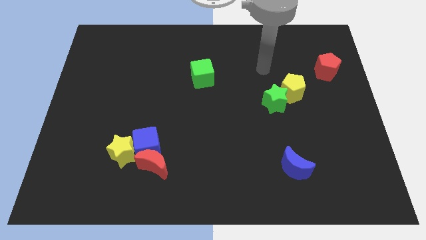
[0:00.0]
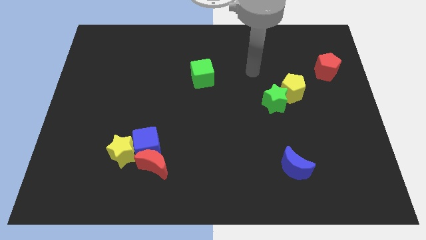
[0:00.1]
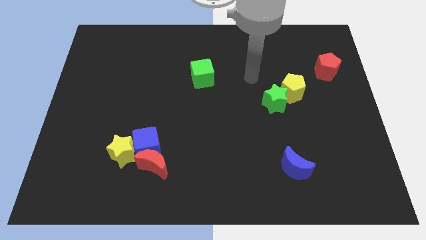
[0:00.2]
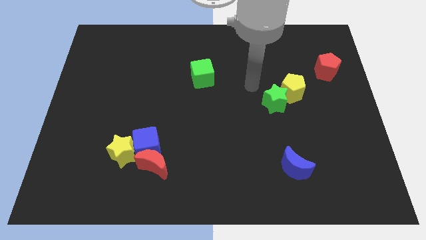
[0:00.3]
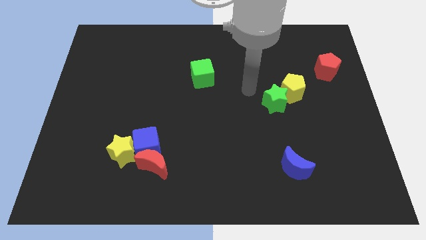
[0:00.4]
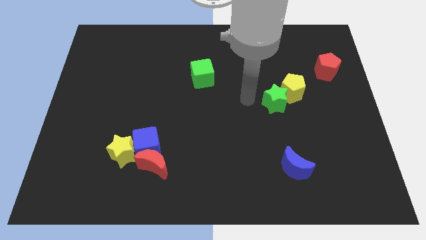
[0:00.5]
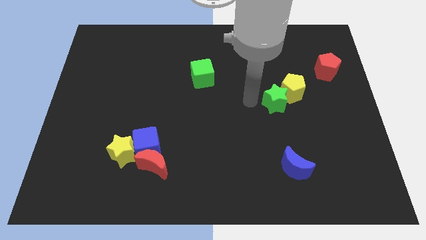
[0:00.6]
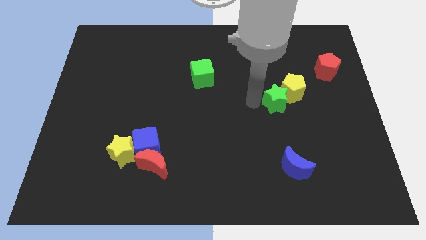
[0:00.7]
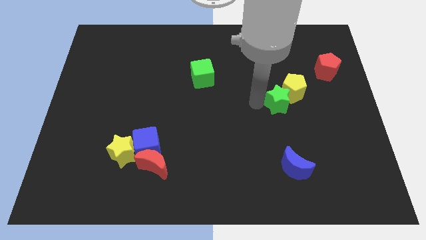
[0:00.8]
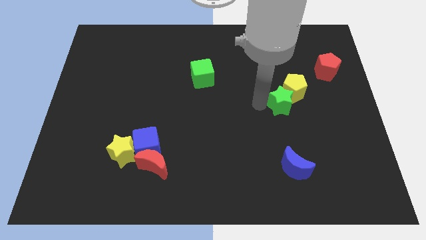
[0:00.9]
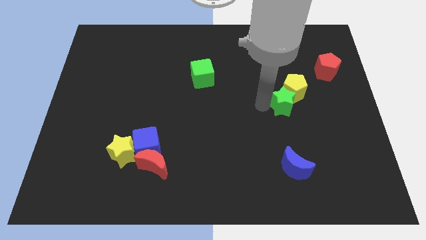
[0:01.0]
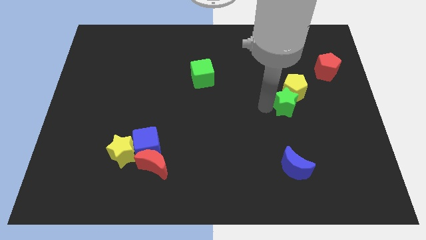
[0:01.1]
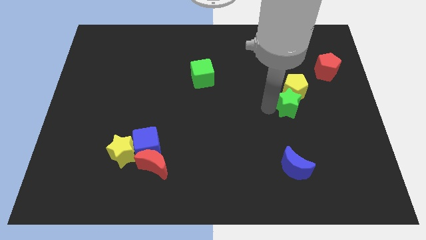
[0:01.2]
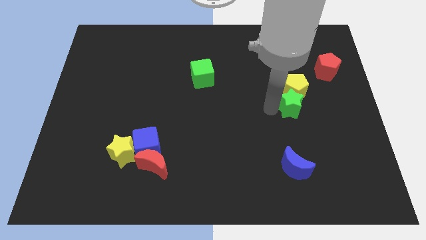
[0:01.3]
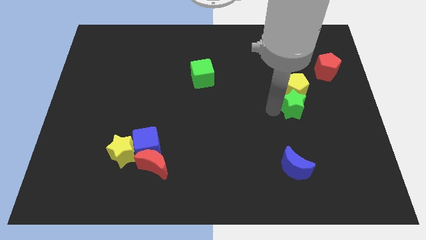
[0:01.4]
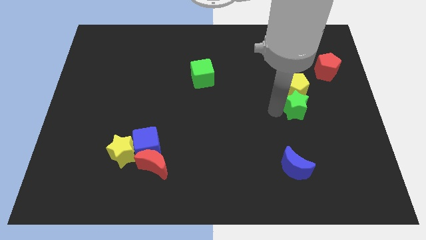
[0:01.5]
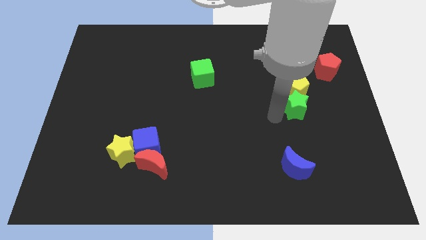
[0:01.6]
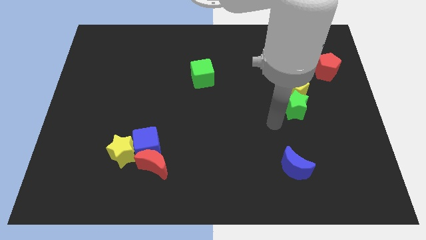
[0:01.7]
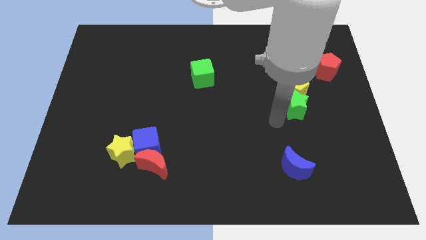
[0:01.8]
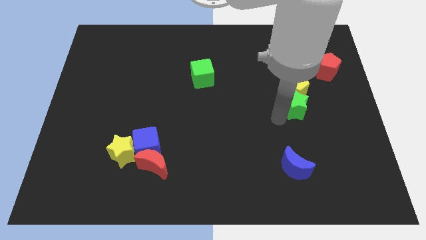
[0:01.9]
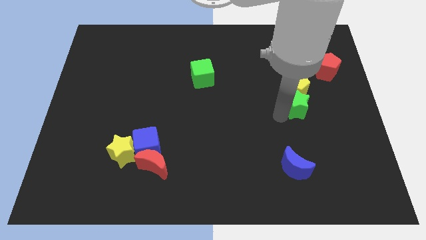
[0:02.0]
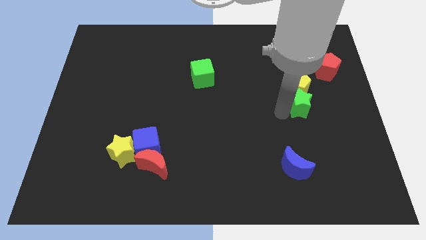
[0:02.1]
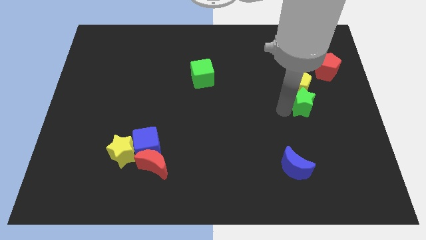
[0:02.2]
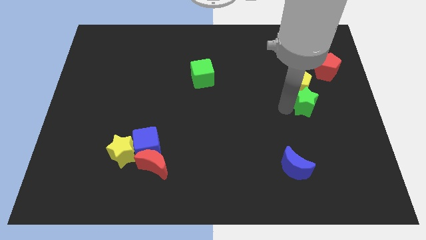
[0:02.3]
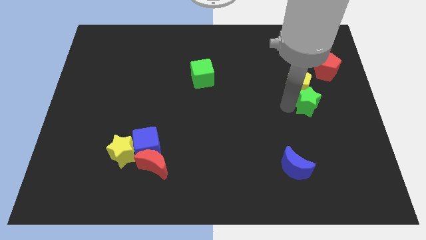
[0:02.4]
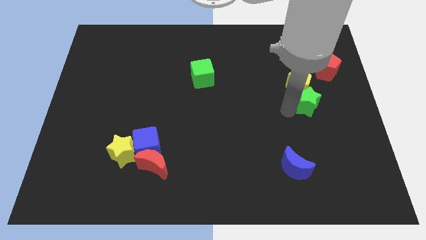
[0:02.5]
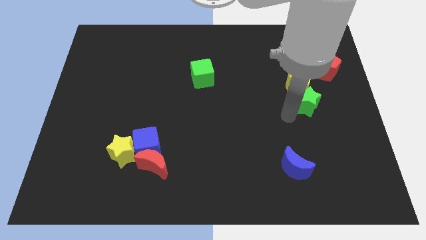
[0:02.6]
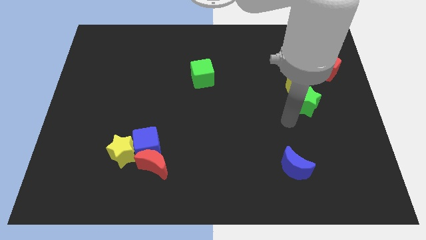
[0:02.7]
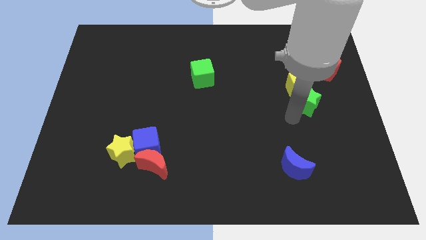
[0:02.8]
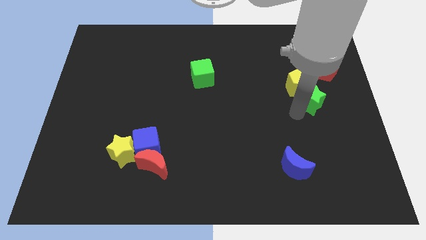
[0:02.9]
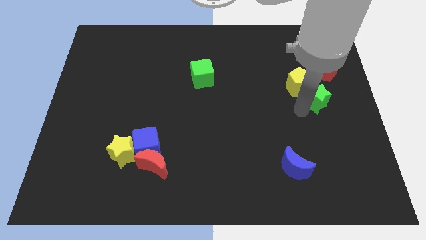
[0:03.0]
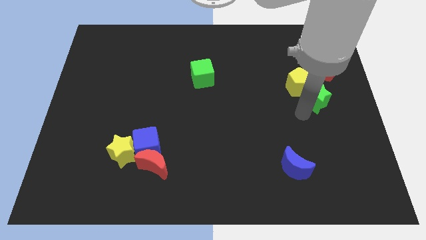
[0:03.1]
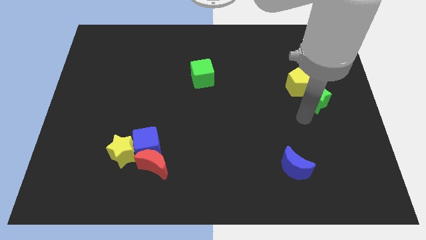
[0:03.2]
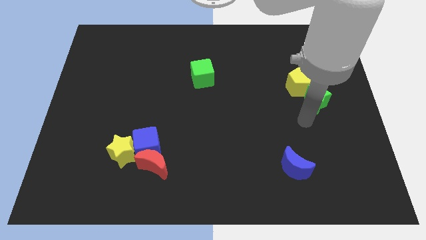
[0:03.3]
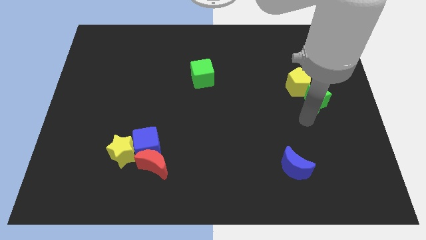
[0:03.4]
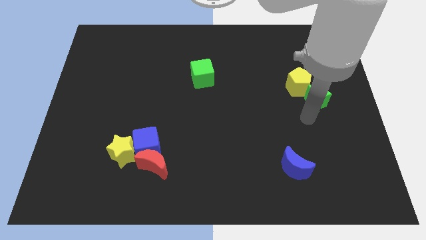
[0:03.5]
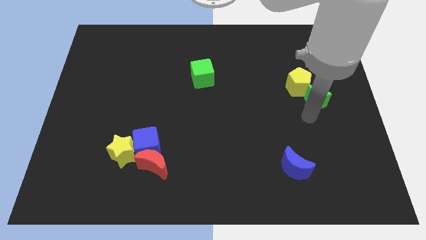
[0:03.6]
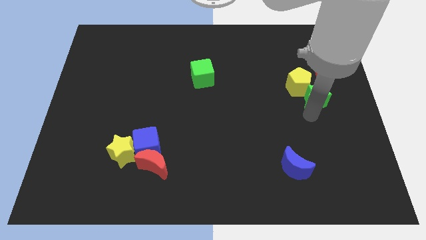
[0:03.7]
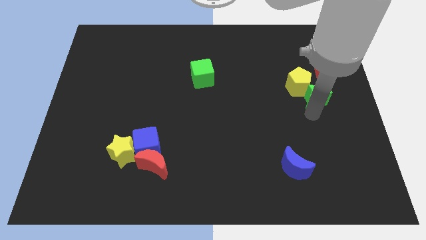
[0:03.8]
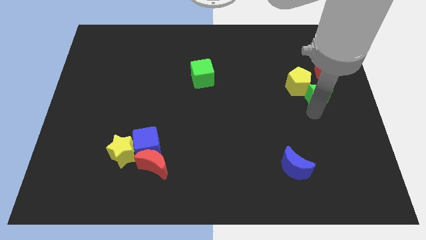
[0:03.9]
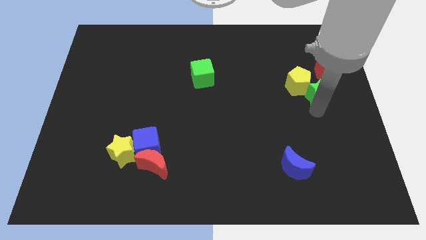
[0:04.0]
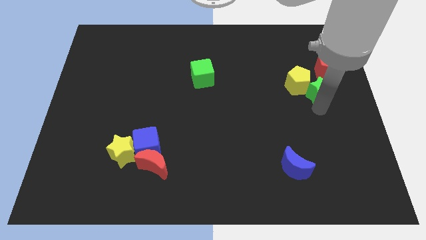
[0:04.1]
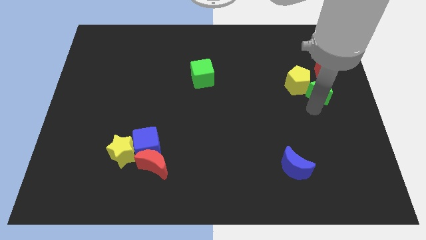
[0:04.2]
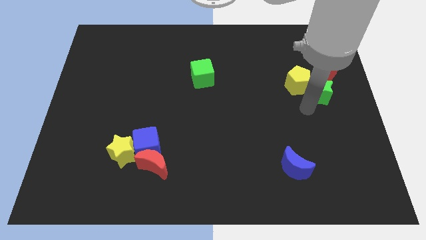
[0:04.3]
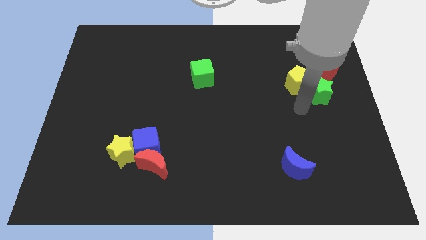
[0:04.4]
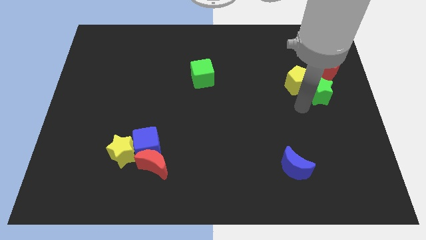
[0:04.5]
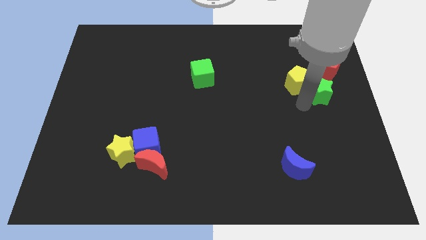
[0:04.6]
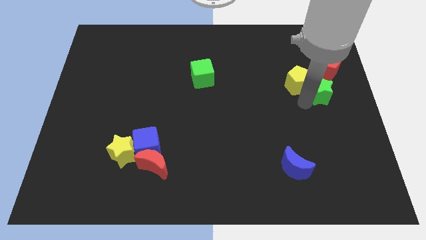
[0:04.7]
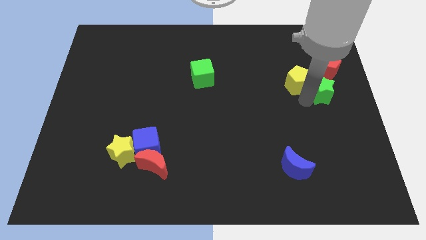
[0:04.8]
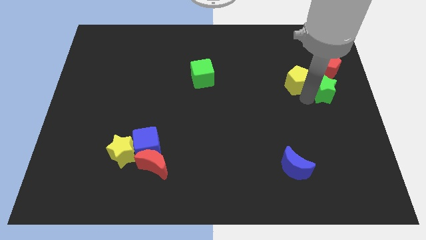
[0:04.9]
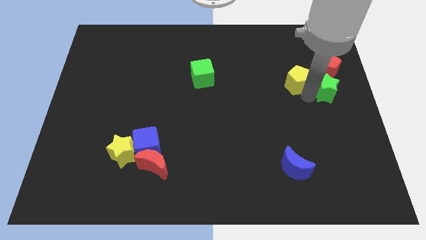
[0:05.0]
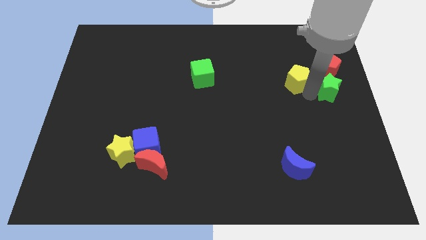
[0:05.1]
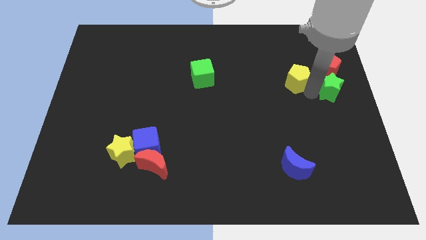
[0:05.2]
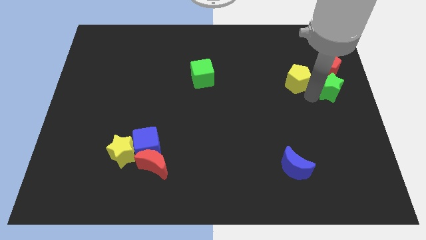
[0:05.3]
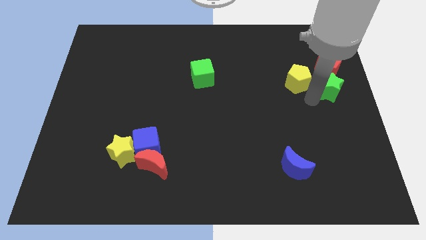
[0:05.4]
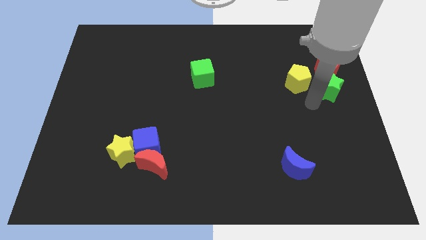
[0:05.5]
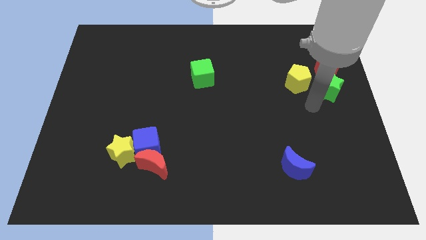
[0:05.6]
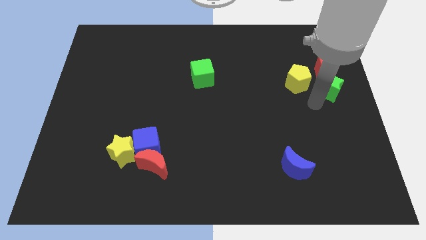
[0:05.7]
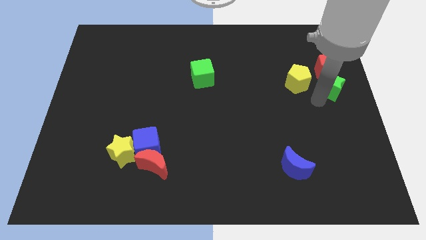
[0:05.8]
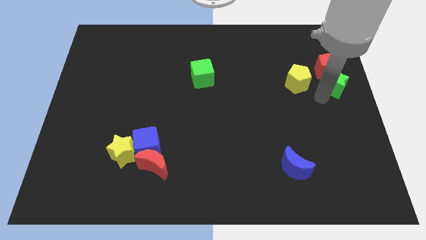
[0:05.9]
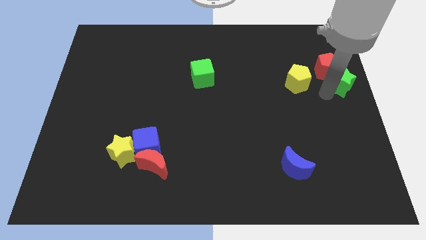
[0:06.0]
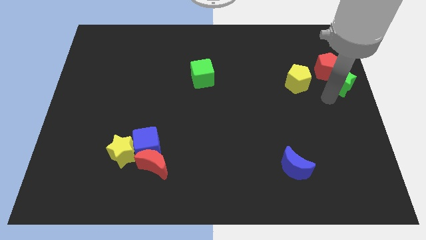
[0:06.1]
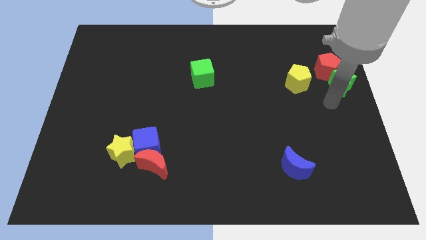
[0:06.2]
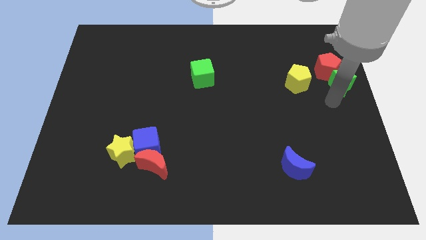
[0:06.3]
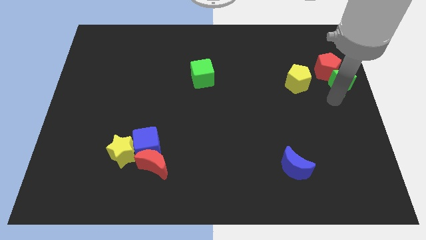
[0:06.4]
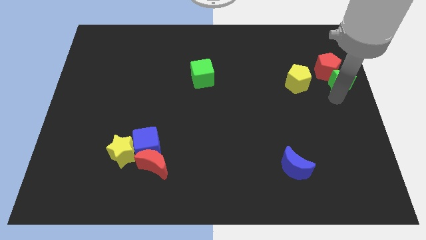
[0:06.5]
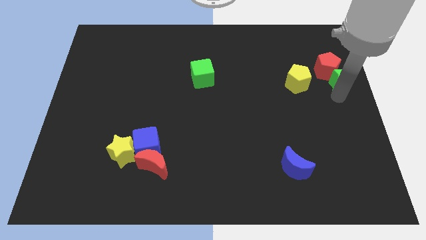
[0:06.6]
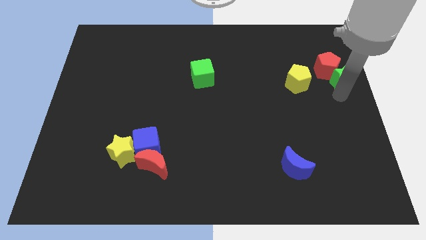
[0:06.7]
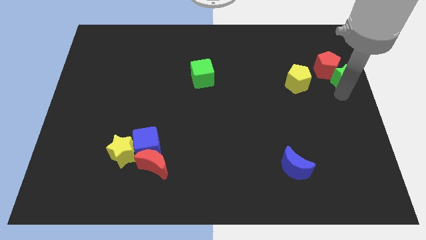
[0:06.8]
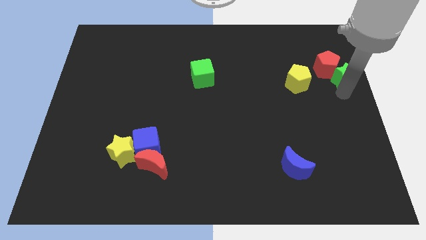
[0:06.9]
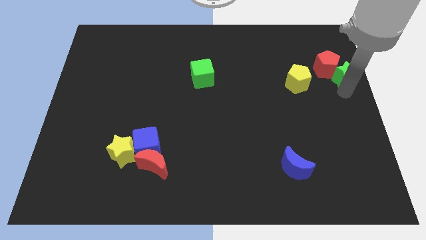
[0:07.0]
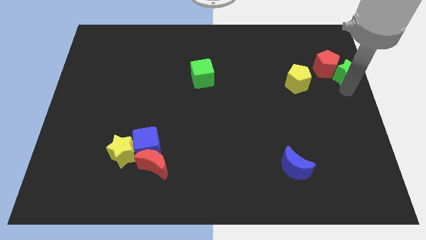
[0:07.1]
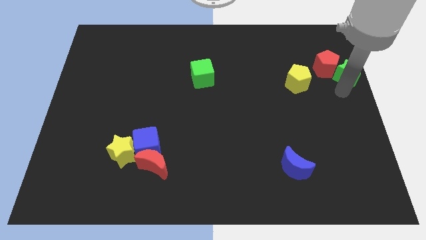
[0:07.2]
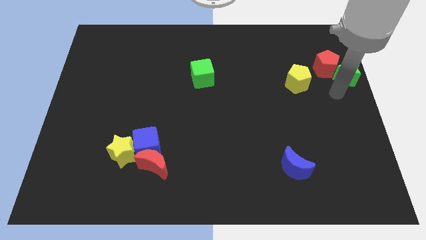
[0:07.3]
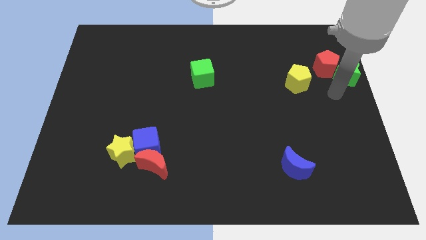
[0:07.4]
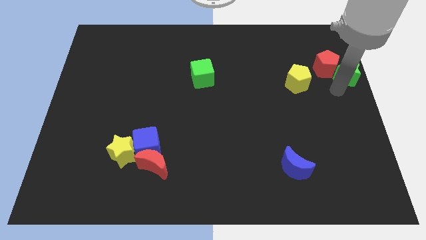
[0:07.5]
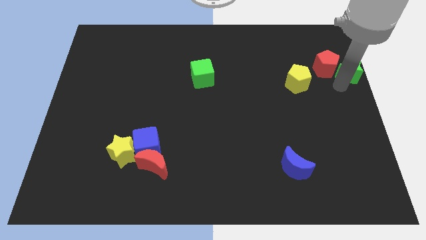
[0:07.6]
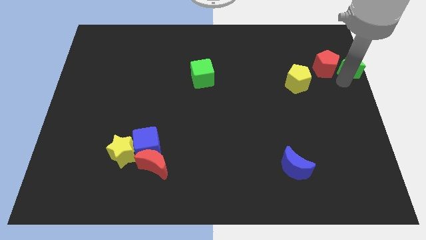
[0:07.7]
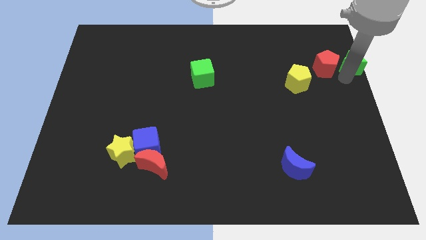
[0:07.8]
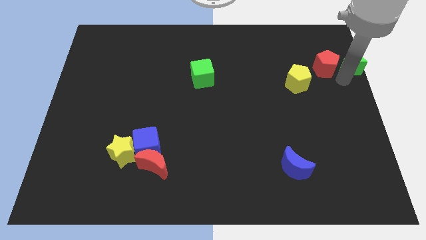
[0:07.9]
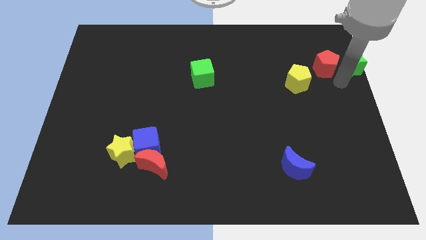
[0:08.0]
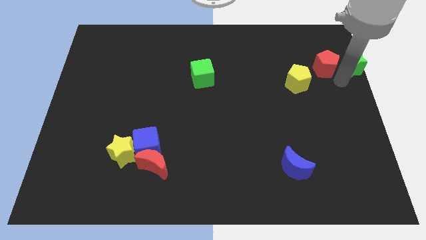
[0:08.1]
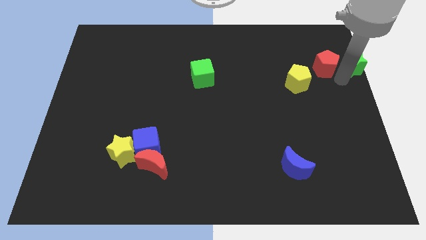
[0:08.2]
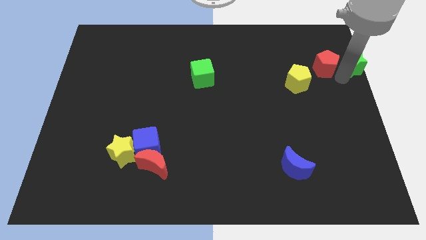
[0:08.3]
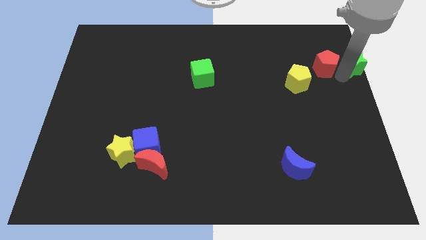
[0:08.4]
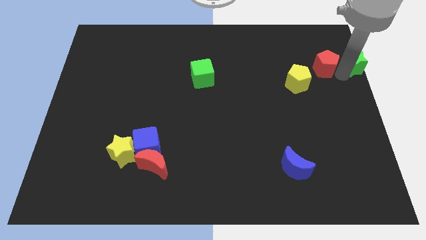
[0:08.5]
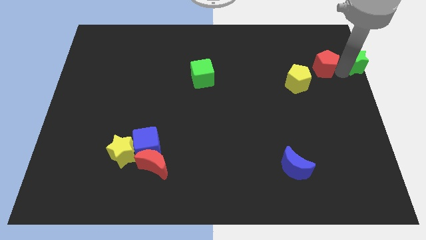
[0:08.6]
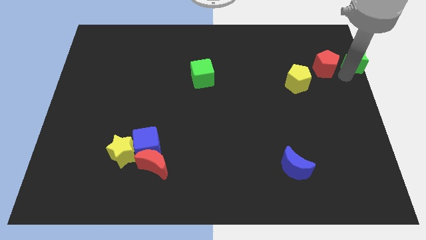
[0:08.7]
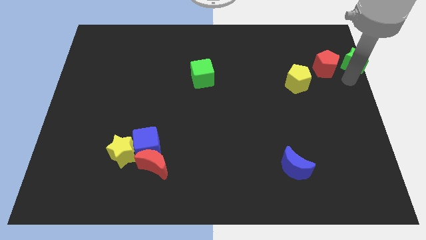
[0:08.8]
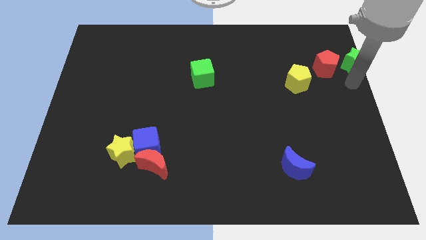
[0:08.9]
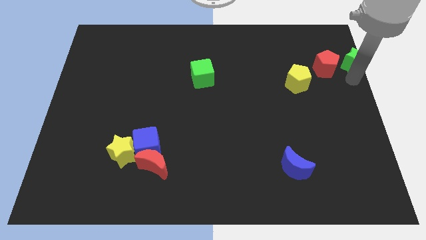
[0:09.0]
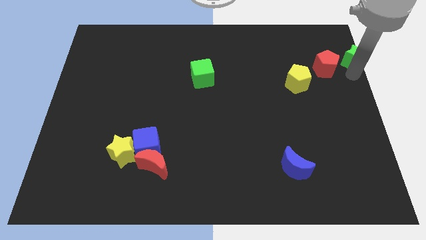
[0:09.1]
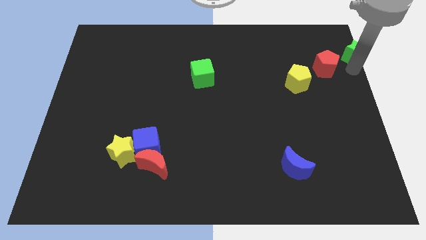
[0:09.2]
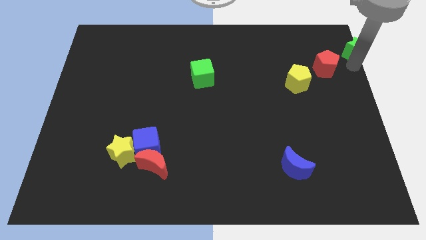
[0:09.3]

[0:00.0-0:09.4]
push the green star to the upper right corner
